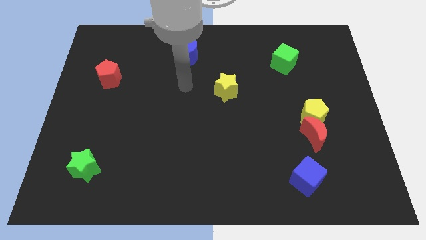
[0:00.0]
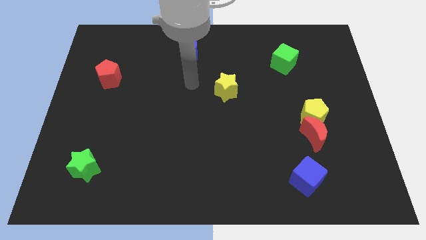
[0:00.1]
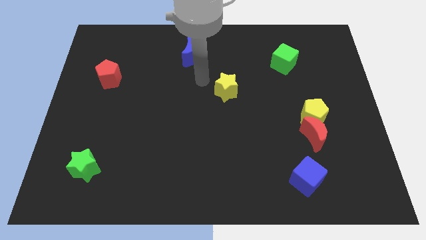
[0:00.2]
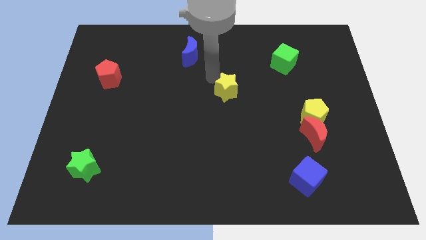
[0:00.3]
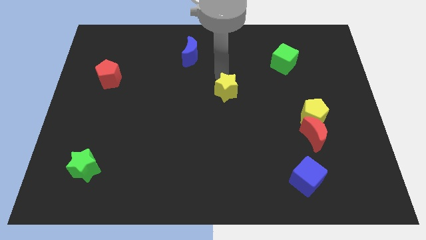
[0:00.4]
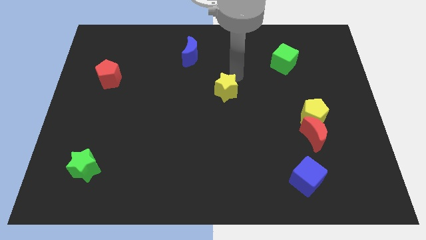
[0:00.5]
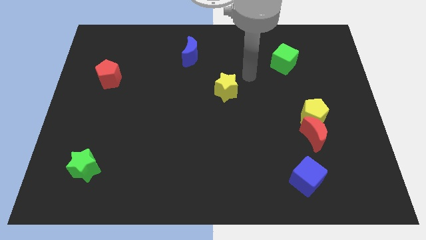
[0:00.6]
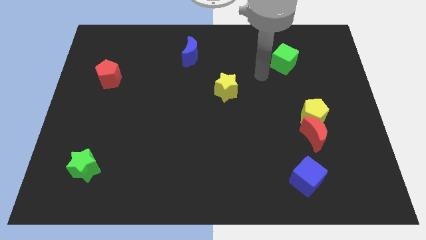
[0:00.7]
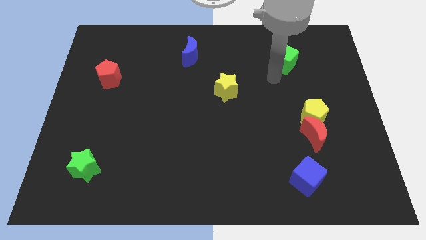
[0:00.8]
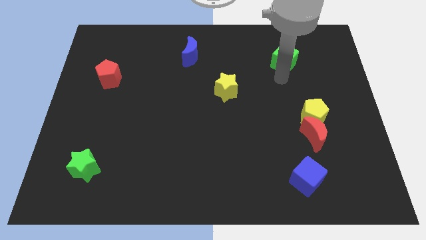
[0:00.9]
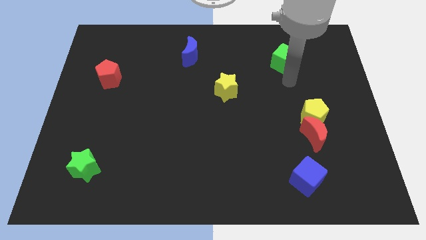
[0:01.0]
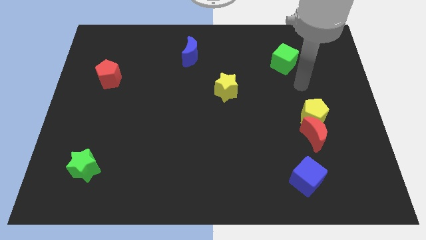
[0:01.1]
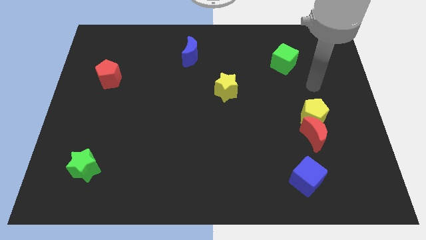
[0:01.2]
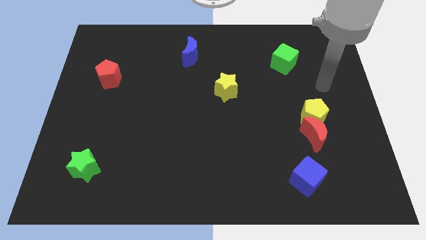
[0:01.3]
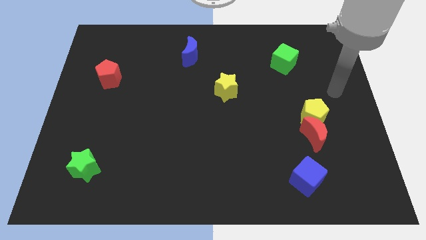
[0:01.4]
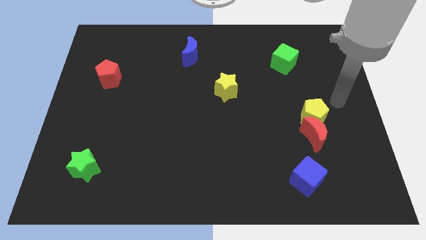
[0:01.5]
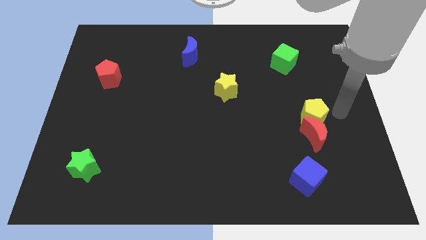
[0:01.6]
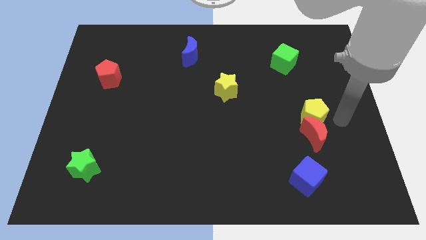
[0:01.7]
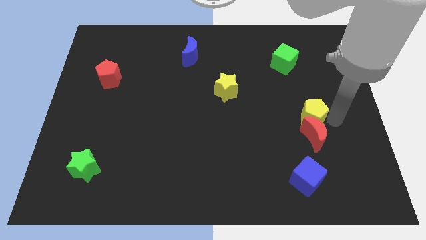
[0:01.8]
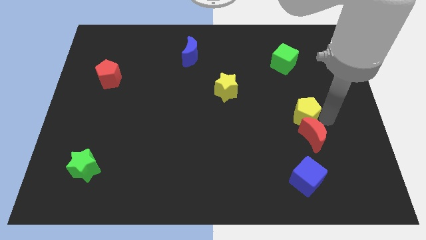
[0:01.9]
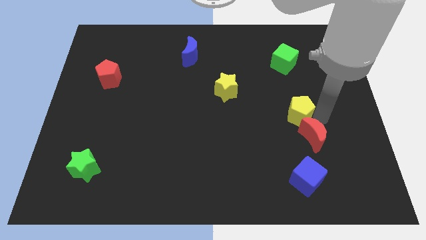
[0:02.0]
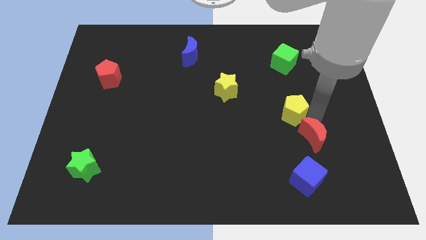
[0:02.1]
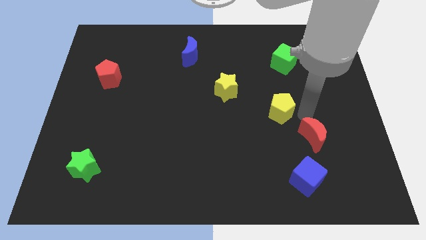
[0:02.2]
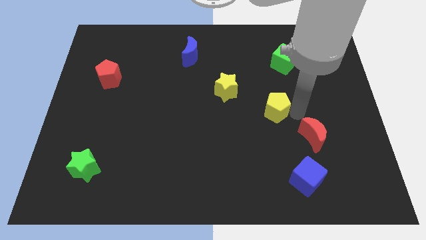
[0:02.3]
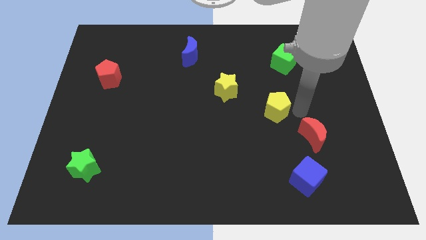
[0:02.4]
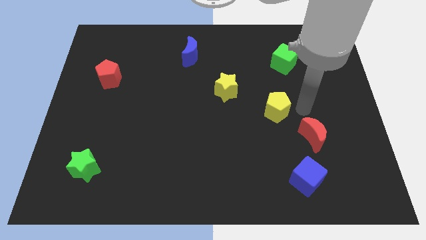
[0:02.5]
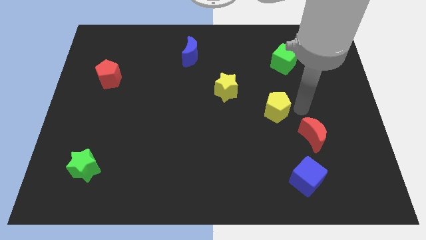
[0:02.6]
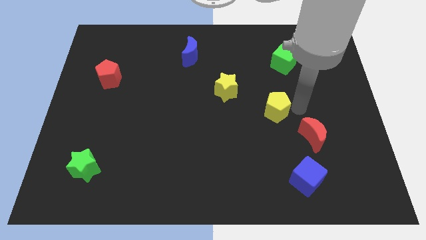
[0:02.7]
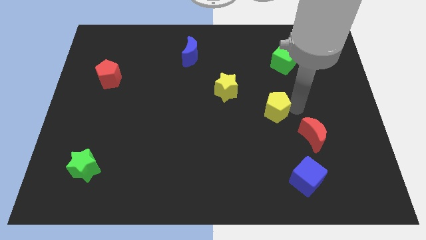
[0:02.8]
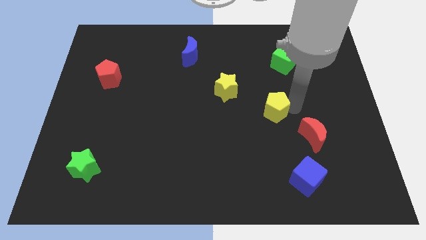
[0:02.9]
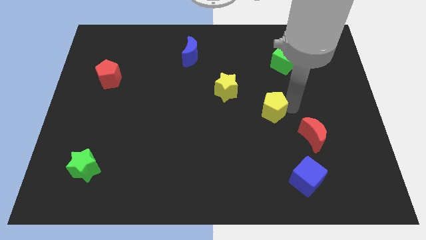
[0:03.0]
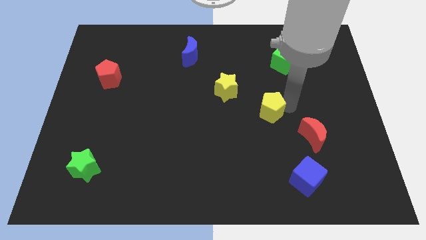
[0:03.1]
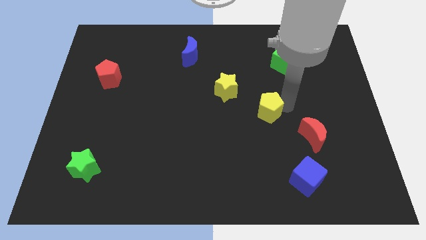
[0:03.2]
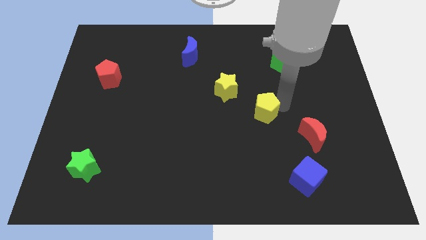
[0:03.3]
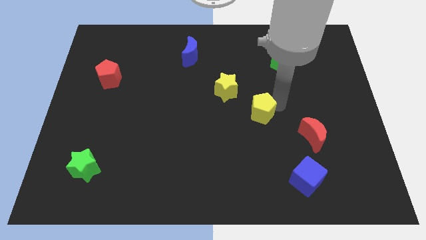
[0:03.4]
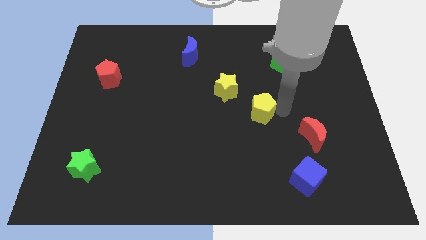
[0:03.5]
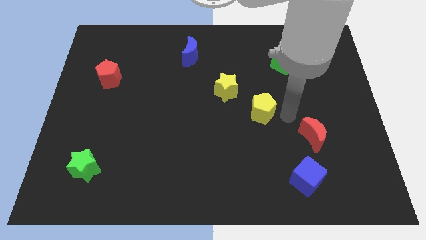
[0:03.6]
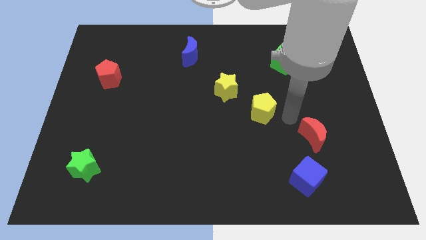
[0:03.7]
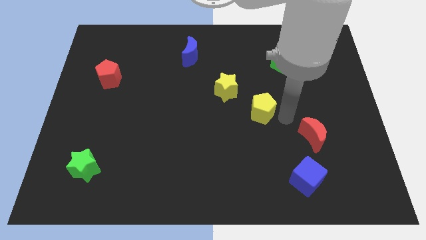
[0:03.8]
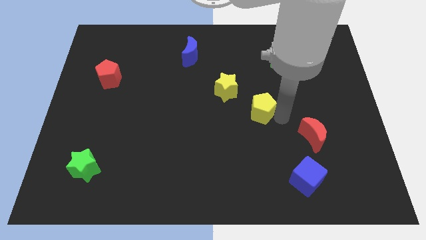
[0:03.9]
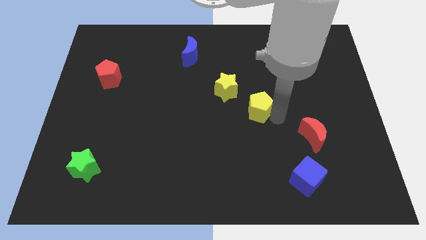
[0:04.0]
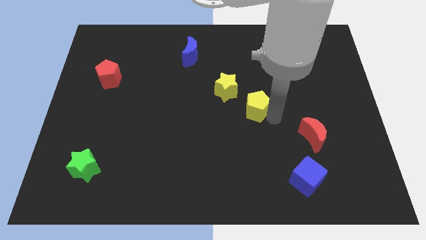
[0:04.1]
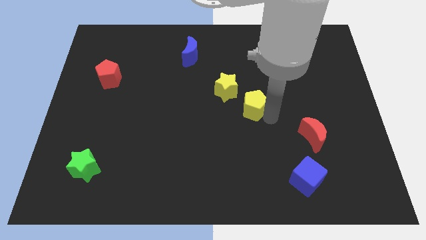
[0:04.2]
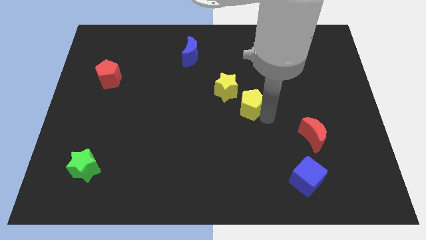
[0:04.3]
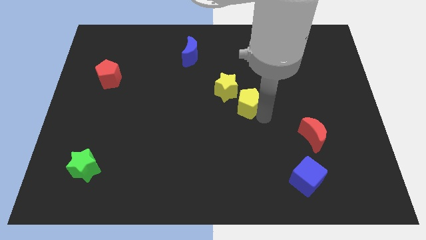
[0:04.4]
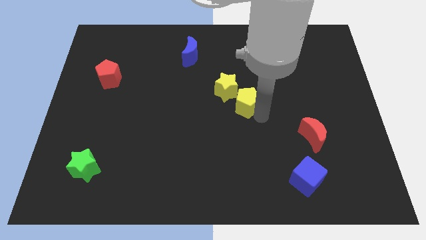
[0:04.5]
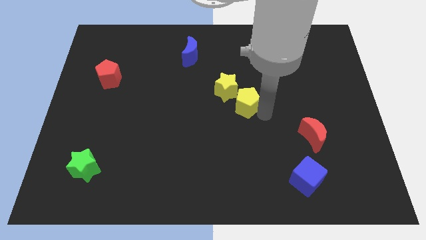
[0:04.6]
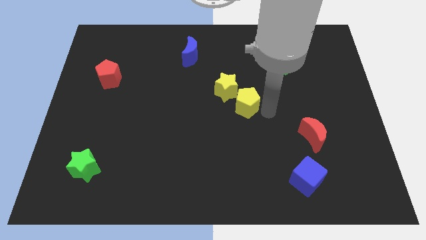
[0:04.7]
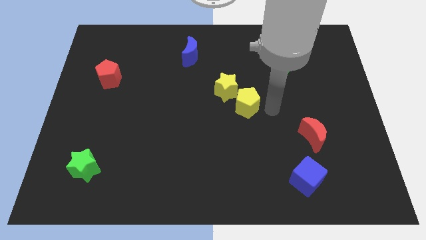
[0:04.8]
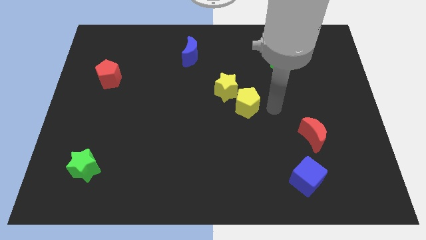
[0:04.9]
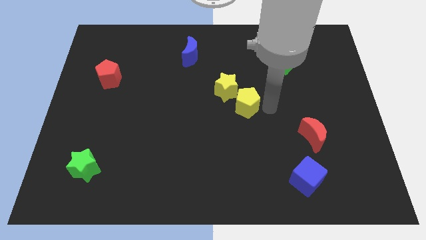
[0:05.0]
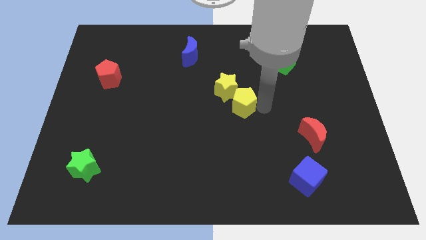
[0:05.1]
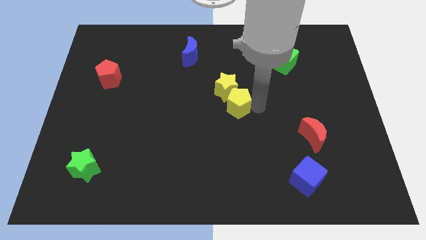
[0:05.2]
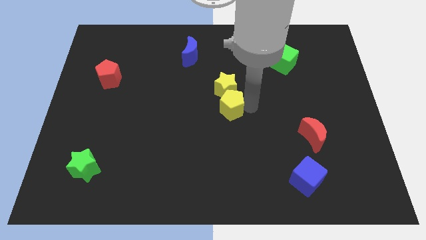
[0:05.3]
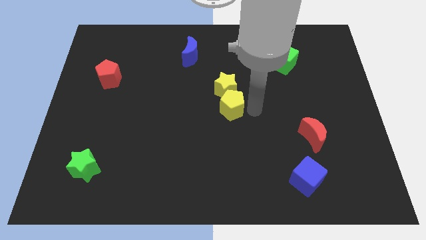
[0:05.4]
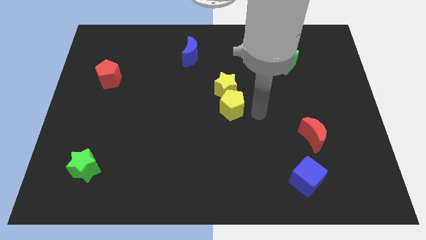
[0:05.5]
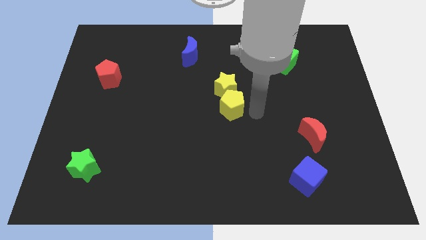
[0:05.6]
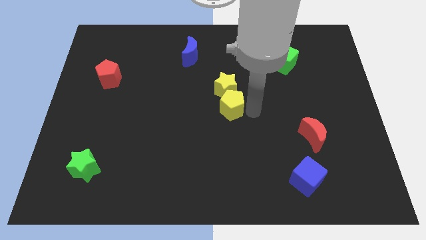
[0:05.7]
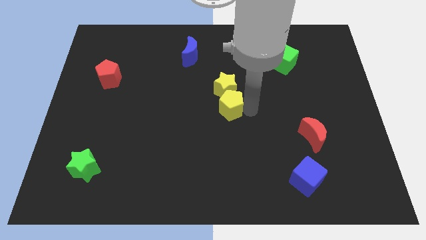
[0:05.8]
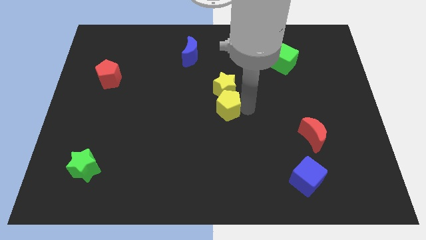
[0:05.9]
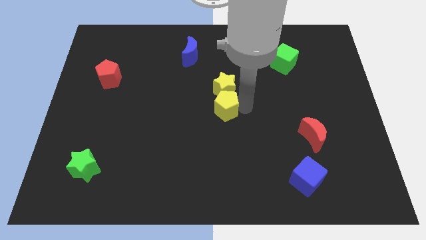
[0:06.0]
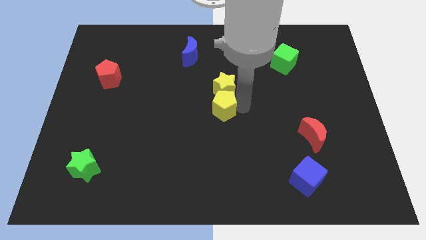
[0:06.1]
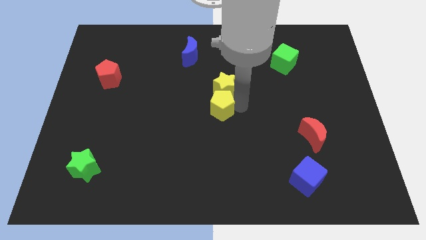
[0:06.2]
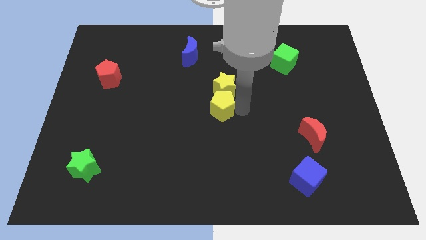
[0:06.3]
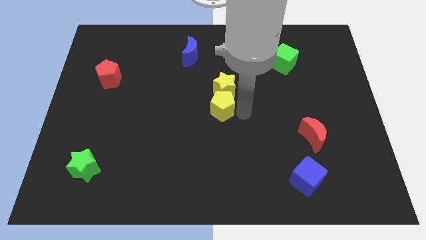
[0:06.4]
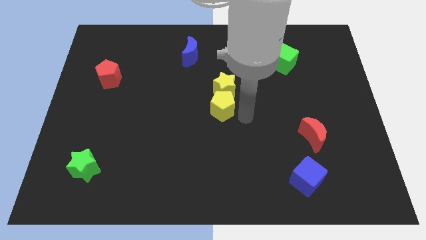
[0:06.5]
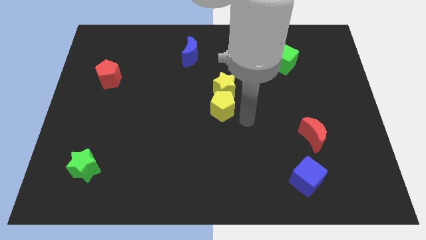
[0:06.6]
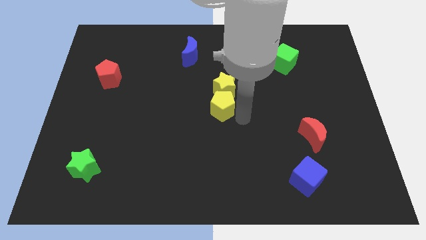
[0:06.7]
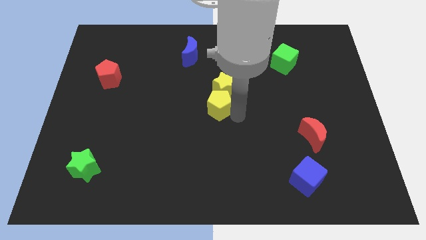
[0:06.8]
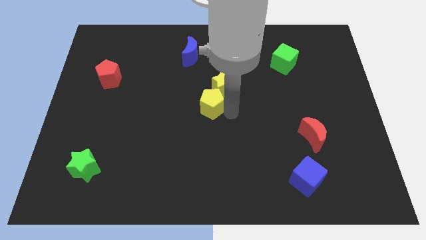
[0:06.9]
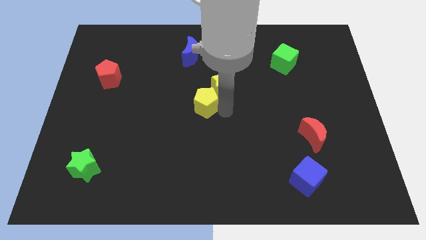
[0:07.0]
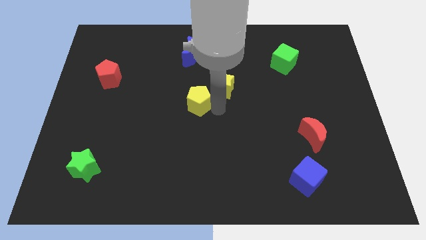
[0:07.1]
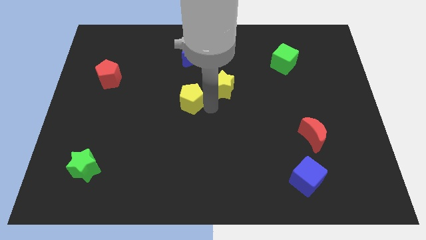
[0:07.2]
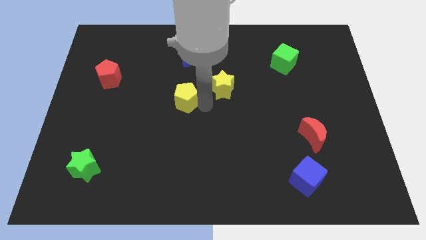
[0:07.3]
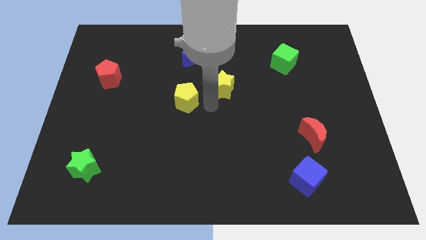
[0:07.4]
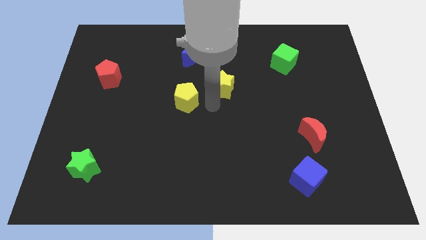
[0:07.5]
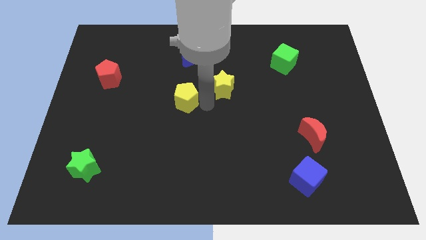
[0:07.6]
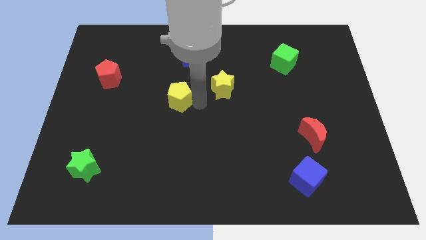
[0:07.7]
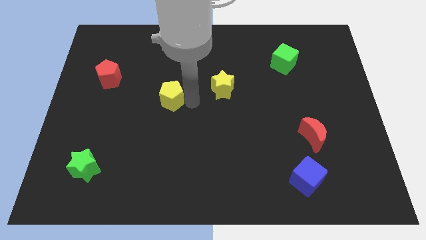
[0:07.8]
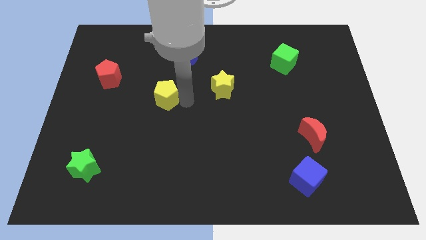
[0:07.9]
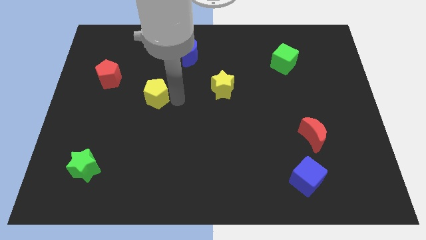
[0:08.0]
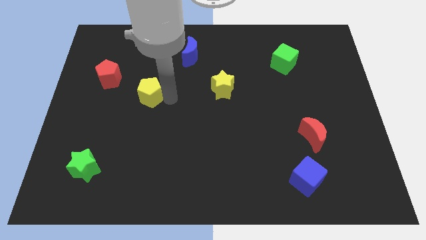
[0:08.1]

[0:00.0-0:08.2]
put the yellow pentagon to the bottom right side of the red pentagon
